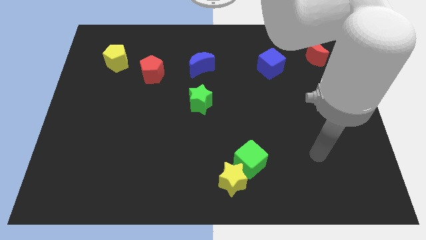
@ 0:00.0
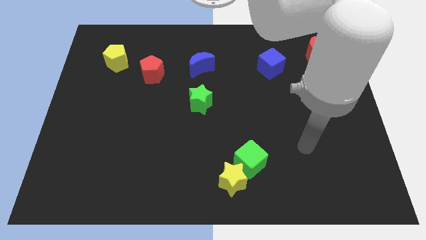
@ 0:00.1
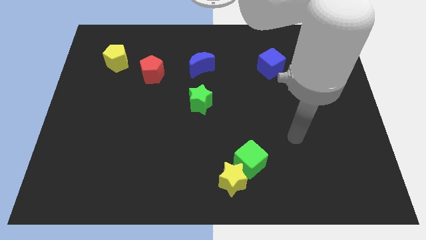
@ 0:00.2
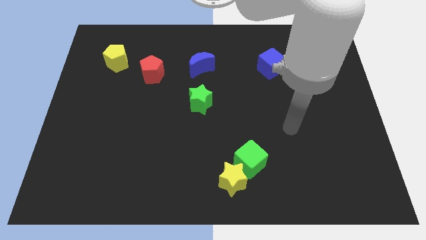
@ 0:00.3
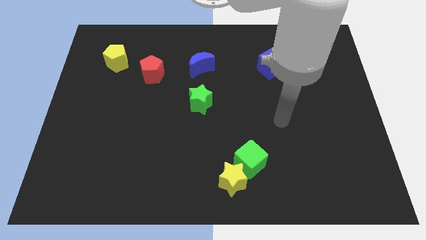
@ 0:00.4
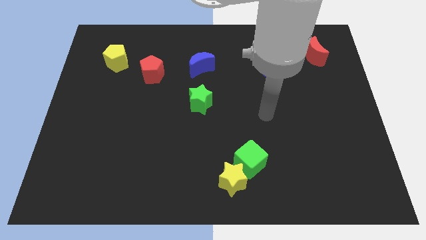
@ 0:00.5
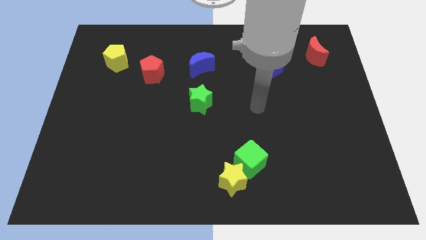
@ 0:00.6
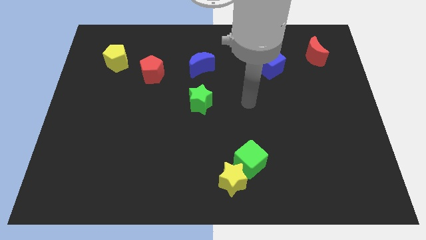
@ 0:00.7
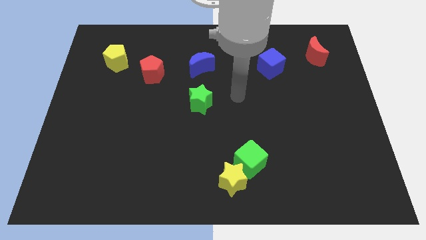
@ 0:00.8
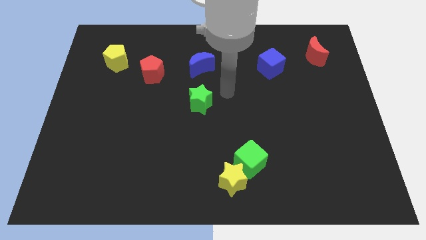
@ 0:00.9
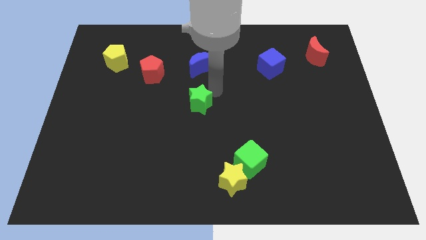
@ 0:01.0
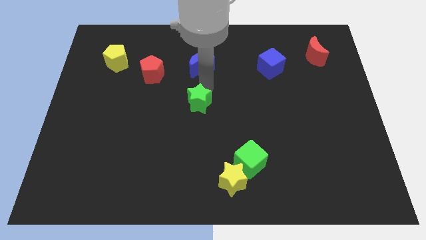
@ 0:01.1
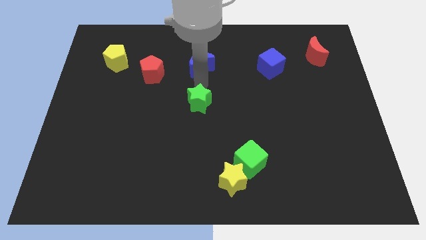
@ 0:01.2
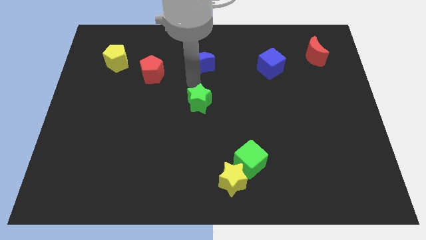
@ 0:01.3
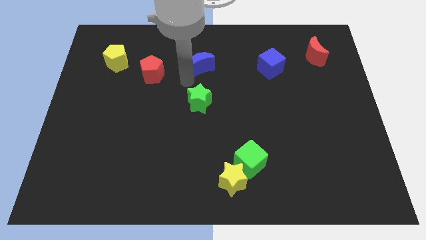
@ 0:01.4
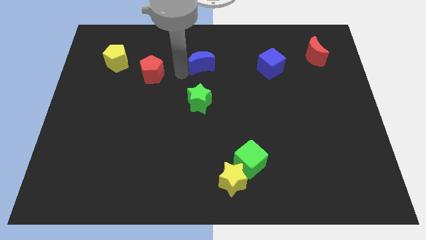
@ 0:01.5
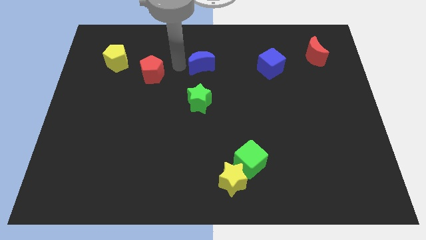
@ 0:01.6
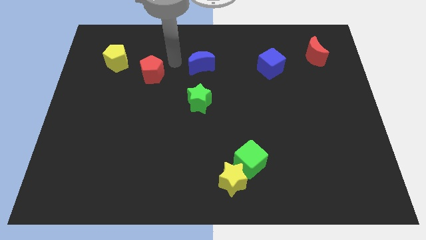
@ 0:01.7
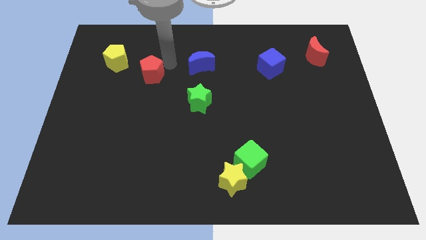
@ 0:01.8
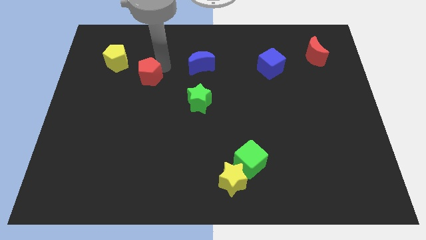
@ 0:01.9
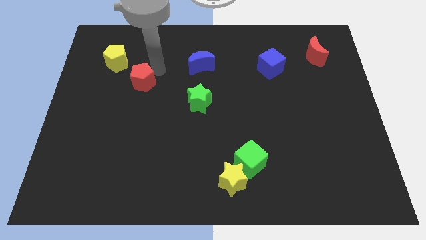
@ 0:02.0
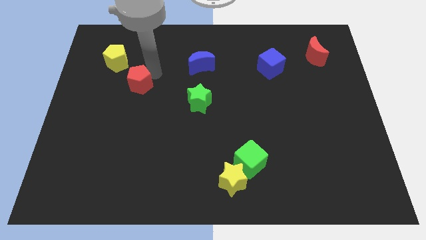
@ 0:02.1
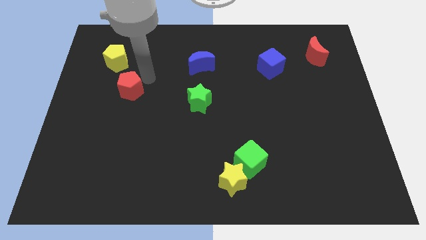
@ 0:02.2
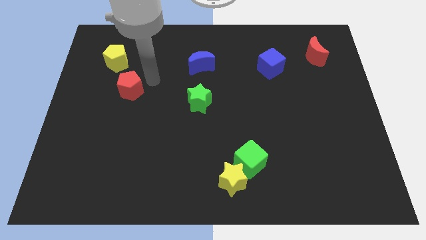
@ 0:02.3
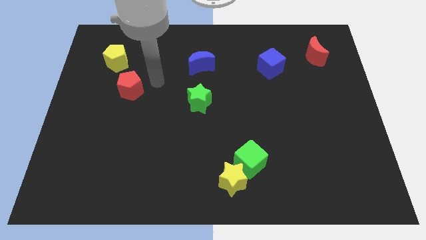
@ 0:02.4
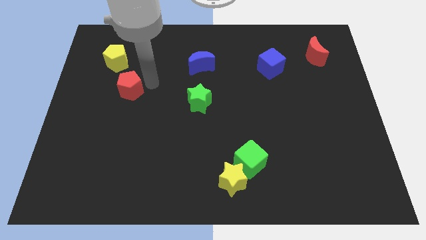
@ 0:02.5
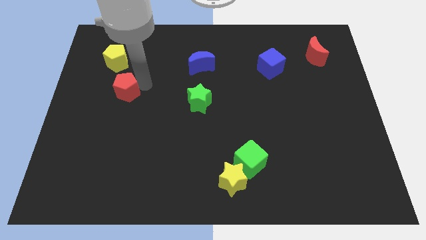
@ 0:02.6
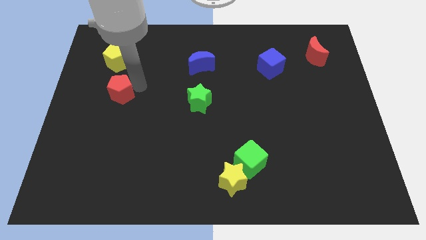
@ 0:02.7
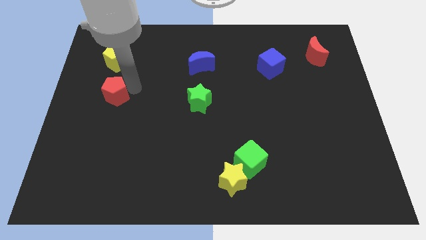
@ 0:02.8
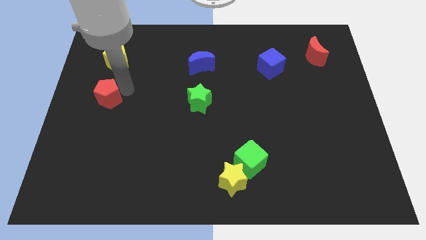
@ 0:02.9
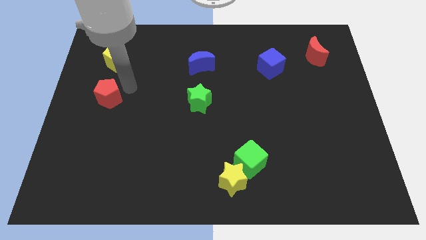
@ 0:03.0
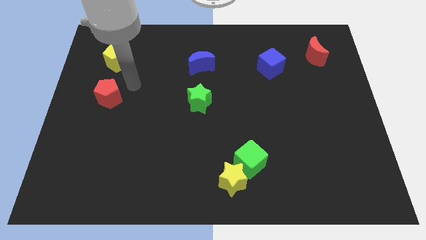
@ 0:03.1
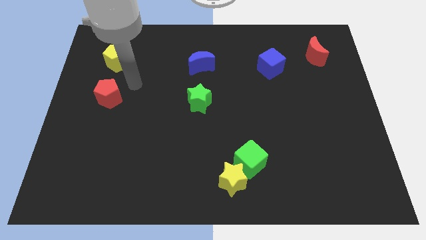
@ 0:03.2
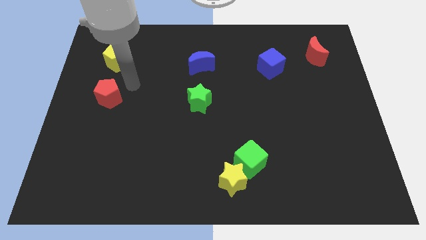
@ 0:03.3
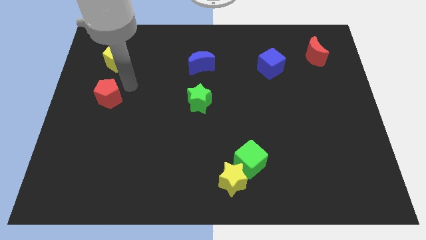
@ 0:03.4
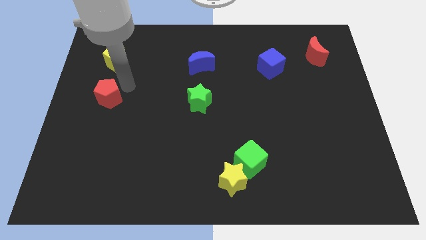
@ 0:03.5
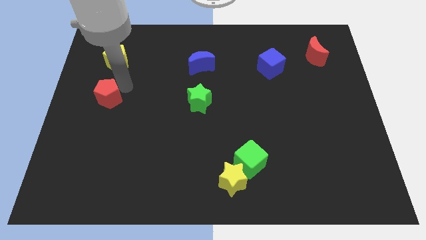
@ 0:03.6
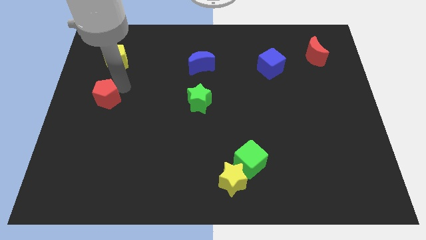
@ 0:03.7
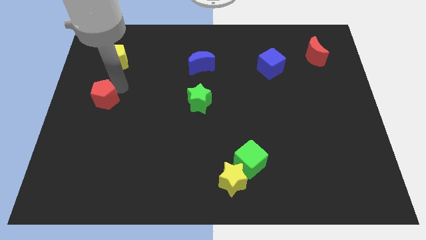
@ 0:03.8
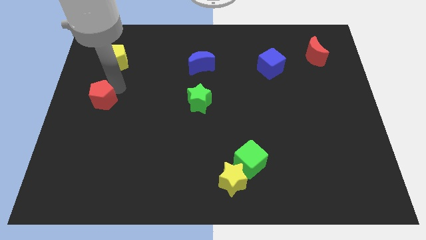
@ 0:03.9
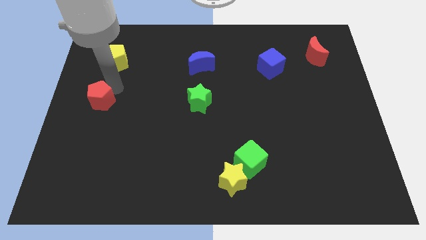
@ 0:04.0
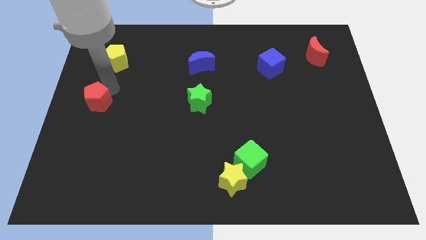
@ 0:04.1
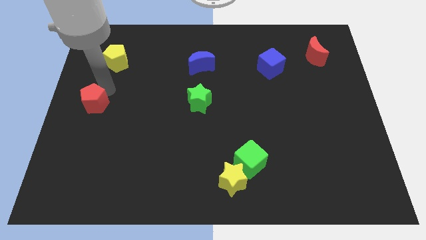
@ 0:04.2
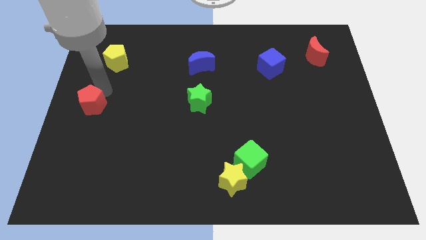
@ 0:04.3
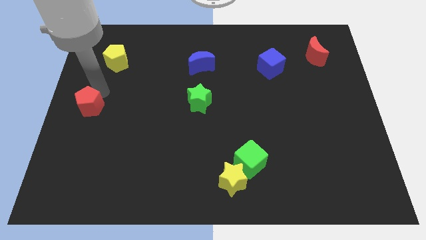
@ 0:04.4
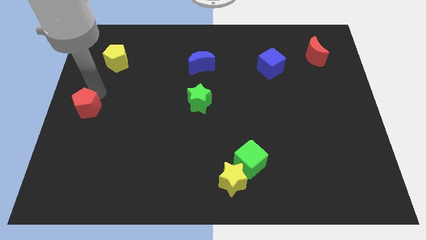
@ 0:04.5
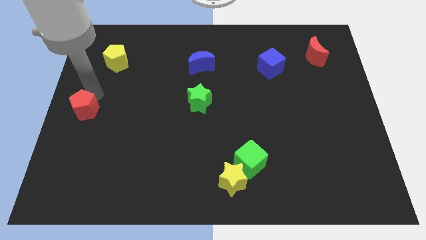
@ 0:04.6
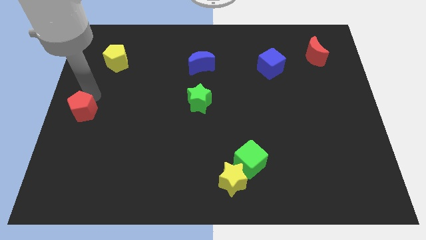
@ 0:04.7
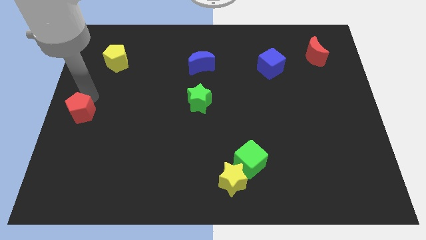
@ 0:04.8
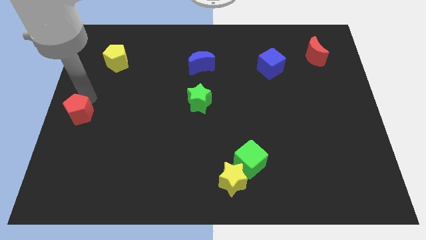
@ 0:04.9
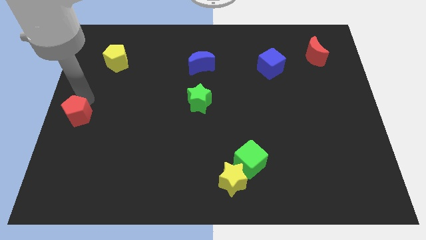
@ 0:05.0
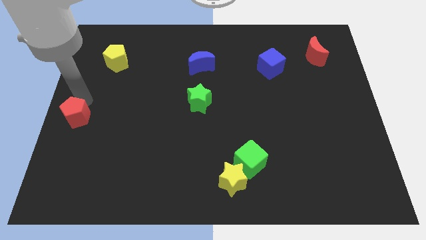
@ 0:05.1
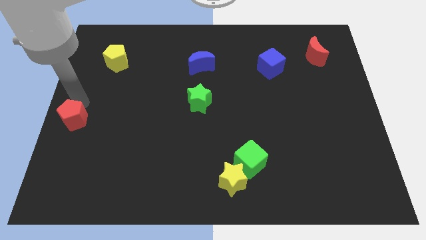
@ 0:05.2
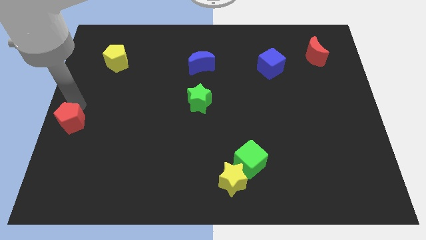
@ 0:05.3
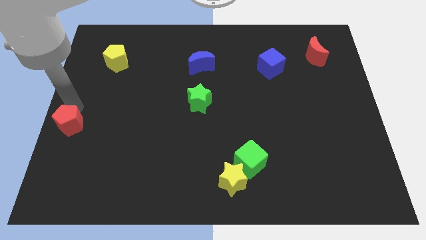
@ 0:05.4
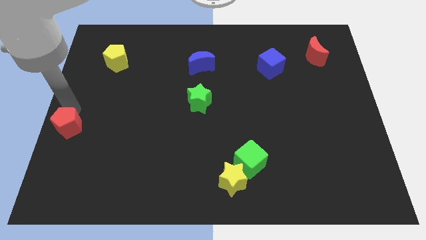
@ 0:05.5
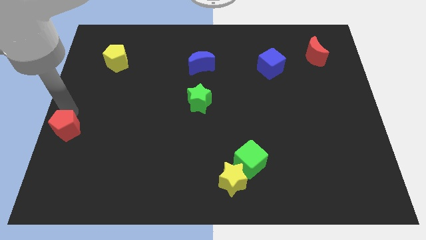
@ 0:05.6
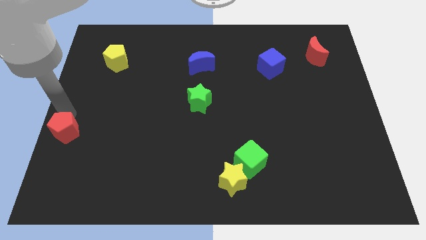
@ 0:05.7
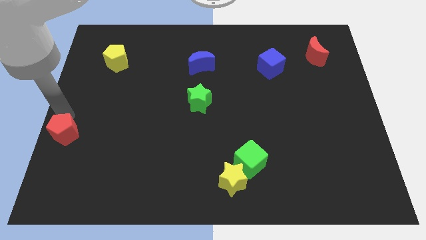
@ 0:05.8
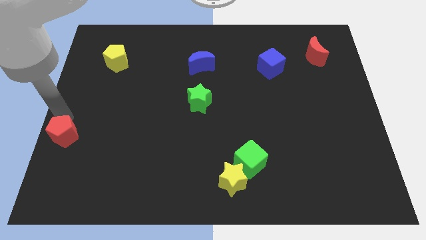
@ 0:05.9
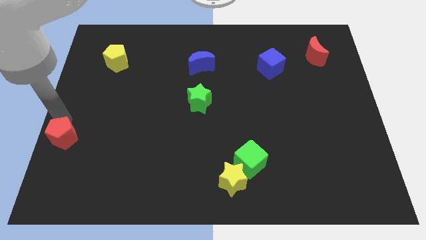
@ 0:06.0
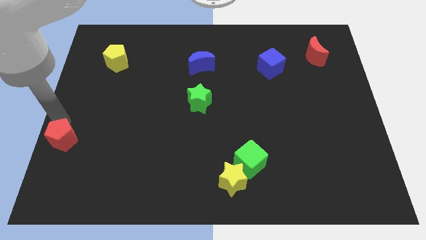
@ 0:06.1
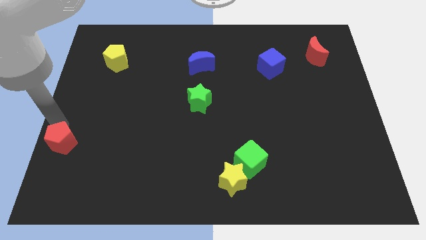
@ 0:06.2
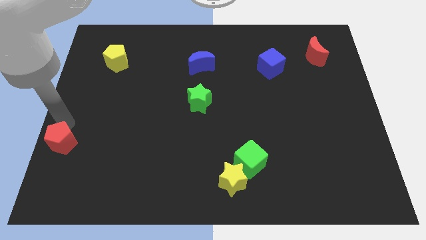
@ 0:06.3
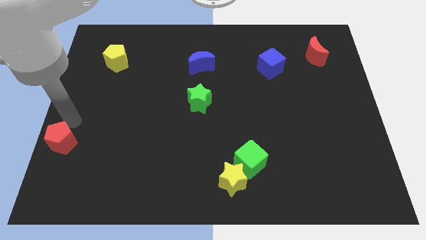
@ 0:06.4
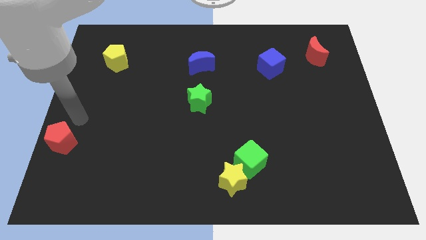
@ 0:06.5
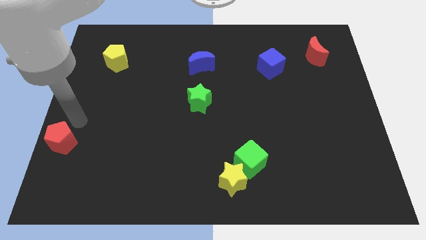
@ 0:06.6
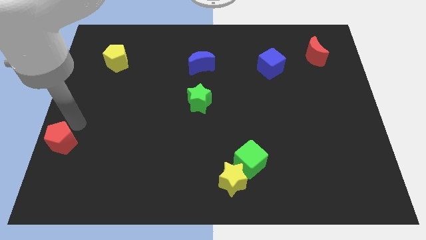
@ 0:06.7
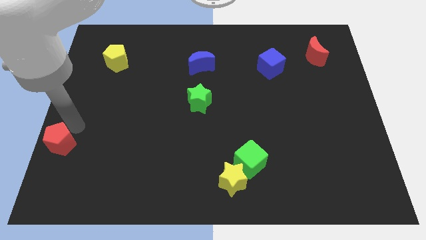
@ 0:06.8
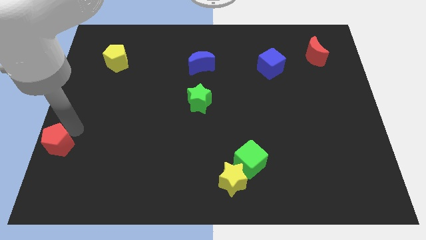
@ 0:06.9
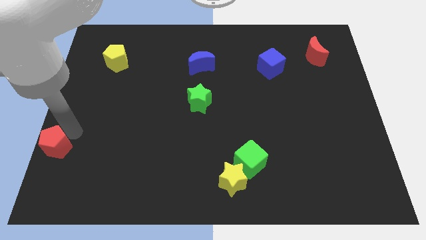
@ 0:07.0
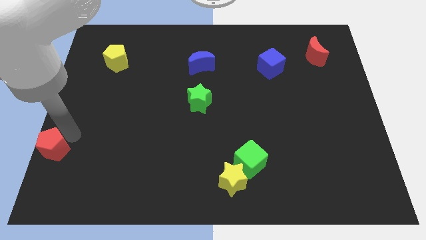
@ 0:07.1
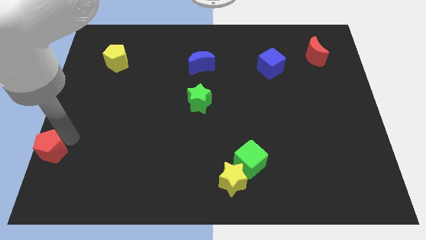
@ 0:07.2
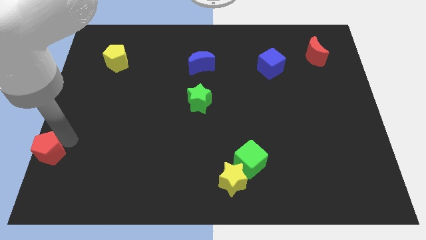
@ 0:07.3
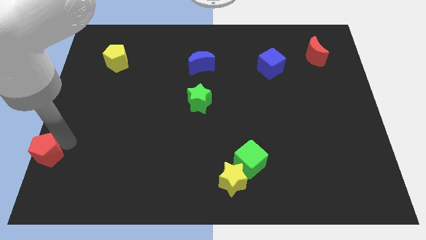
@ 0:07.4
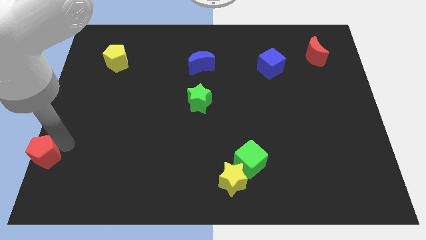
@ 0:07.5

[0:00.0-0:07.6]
slide the red pentagon to the bottom left of the board
